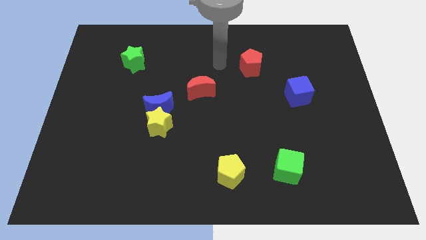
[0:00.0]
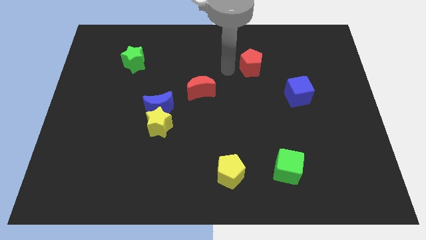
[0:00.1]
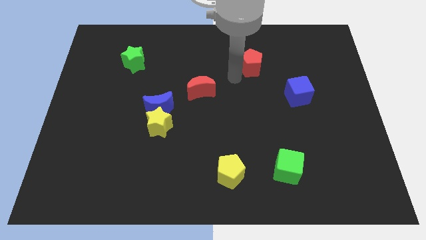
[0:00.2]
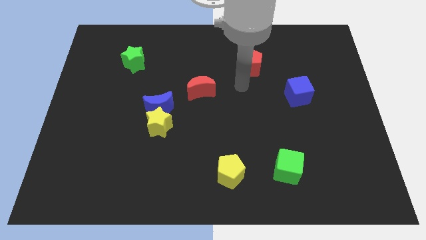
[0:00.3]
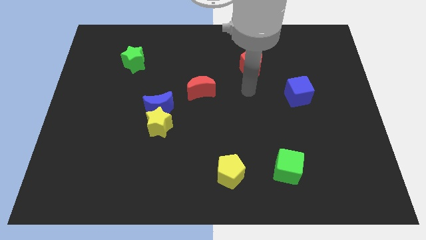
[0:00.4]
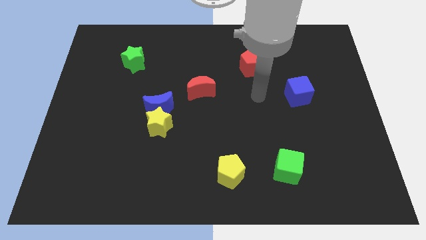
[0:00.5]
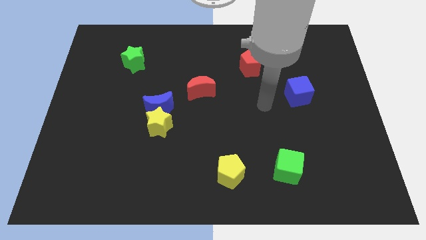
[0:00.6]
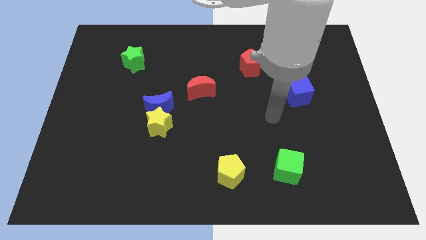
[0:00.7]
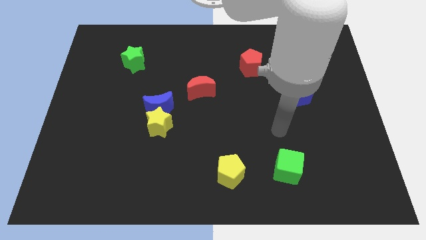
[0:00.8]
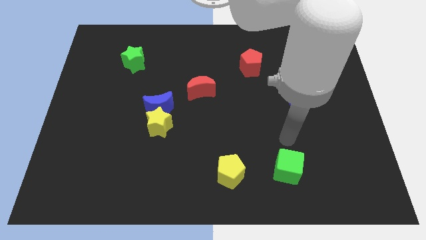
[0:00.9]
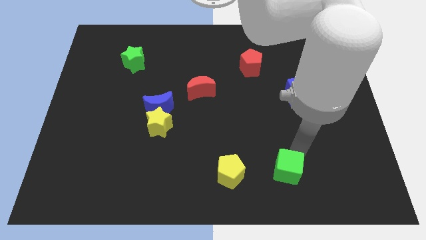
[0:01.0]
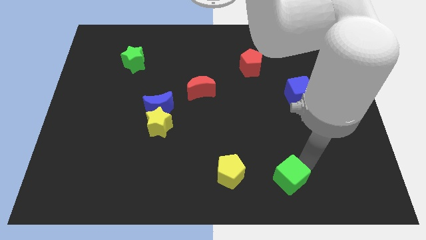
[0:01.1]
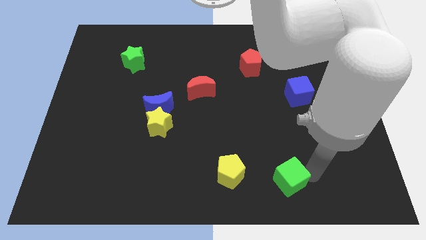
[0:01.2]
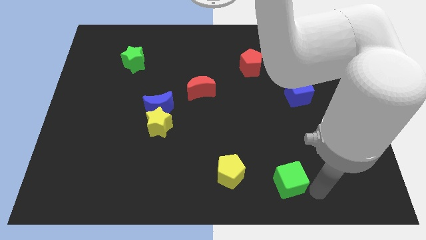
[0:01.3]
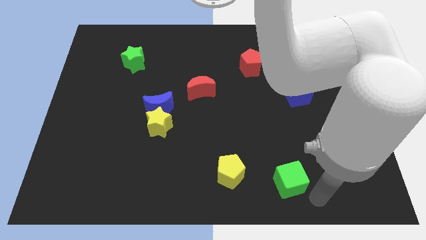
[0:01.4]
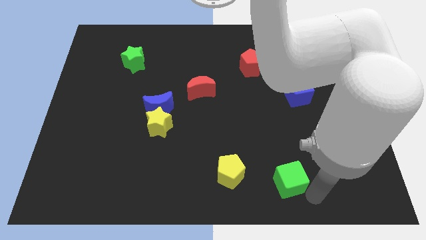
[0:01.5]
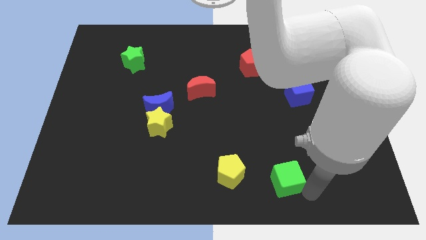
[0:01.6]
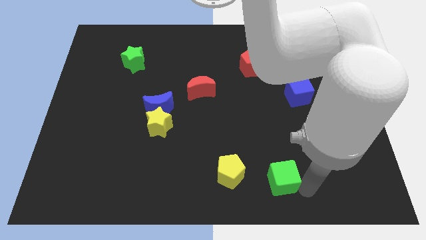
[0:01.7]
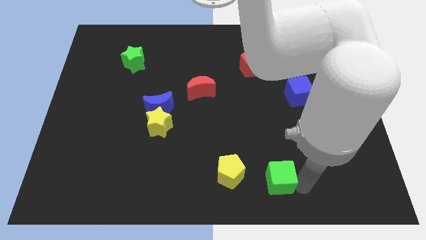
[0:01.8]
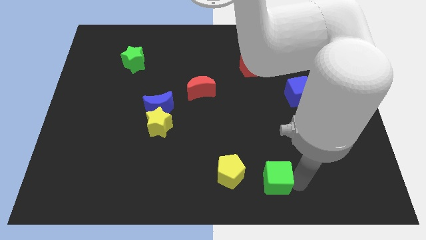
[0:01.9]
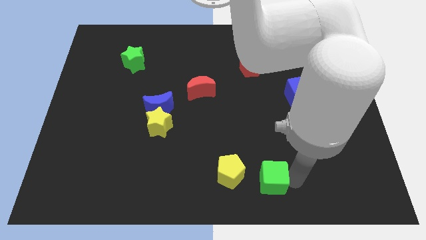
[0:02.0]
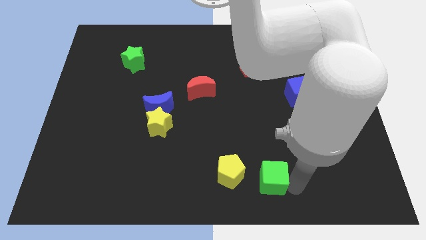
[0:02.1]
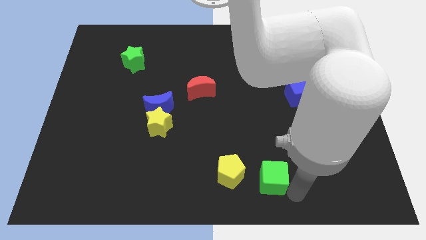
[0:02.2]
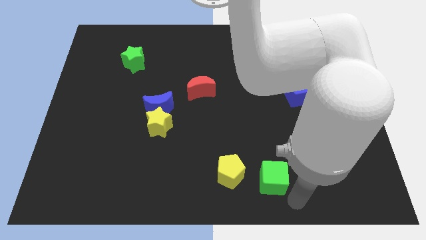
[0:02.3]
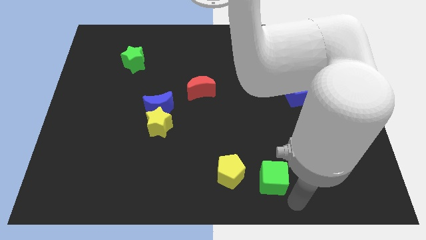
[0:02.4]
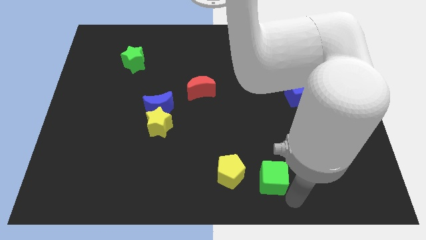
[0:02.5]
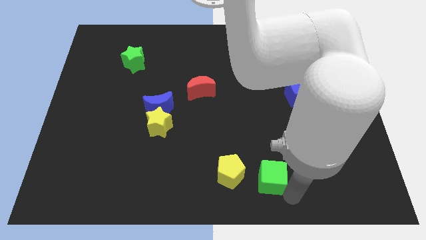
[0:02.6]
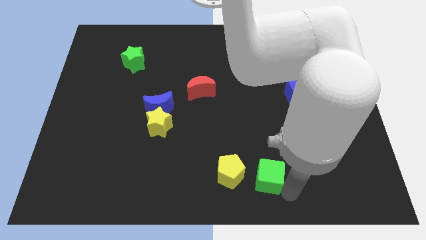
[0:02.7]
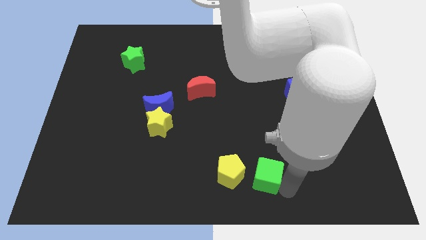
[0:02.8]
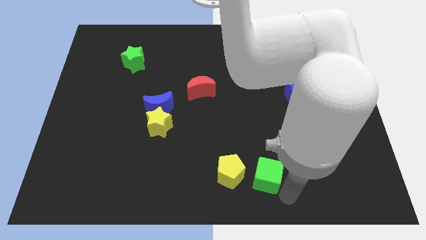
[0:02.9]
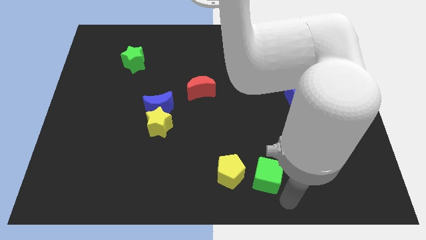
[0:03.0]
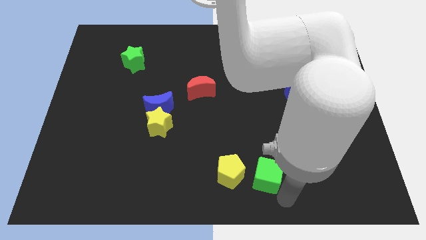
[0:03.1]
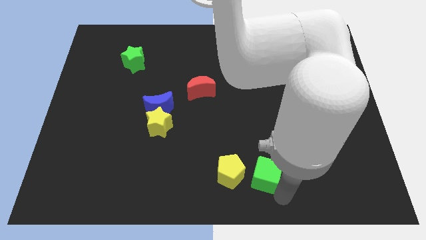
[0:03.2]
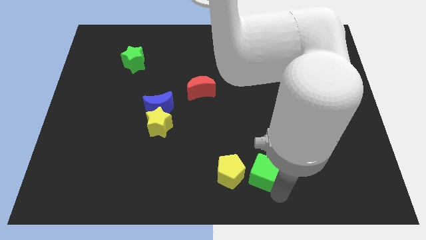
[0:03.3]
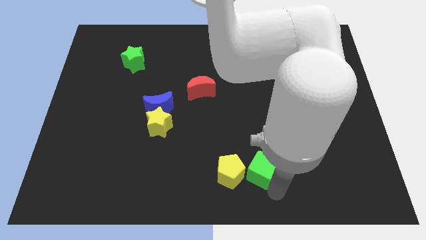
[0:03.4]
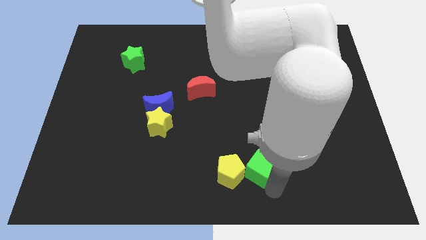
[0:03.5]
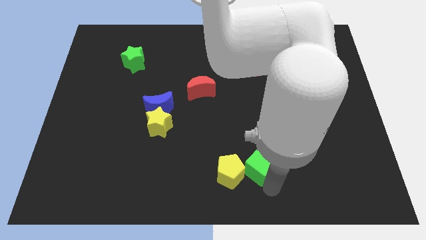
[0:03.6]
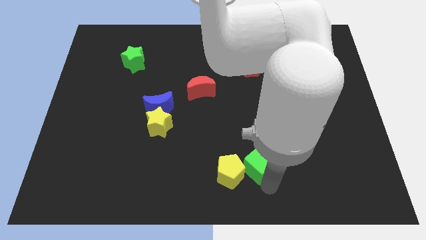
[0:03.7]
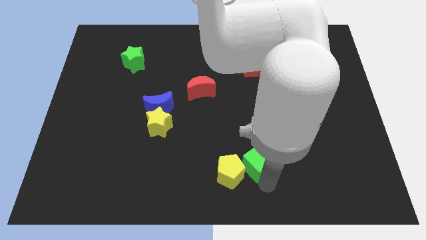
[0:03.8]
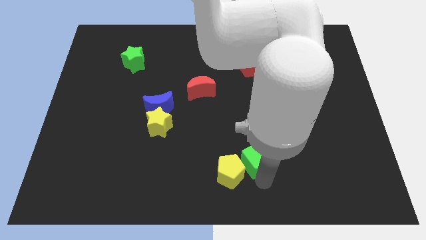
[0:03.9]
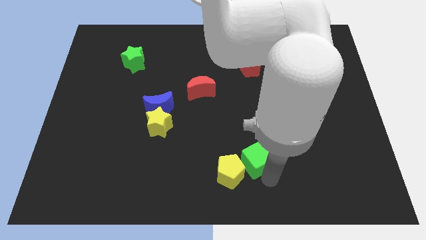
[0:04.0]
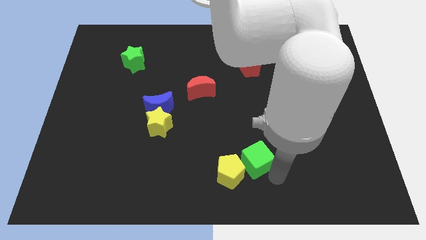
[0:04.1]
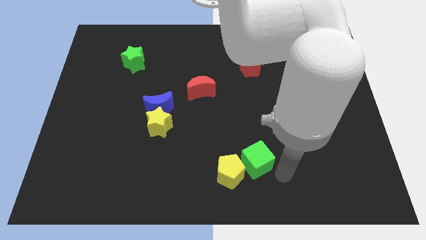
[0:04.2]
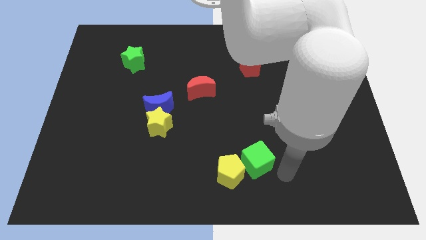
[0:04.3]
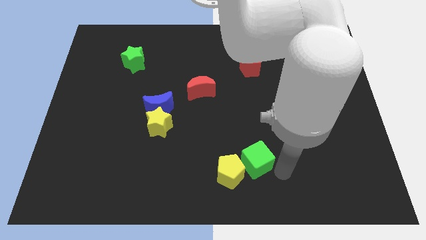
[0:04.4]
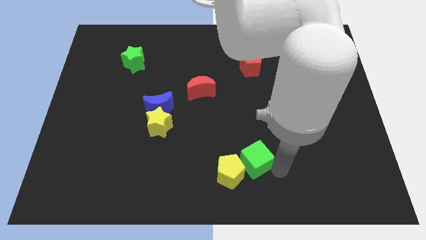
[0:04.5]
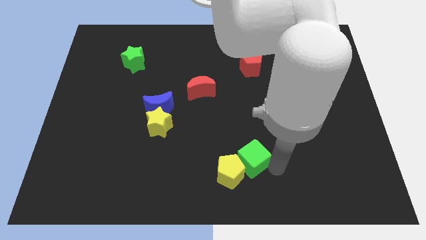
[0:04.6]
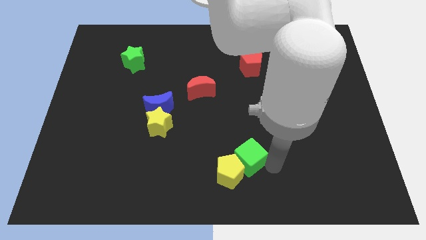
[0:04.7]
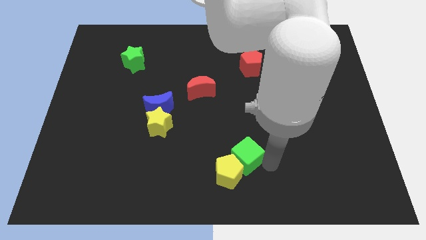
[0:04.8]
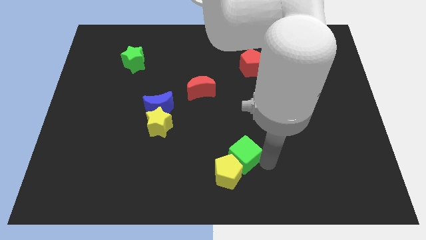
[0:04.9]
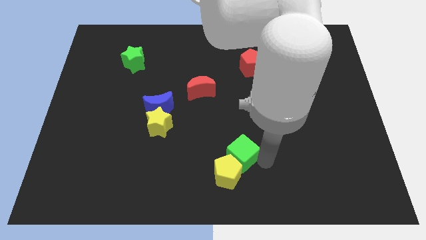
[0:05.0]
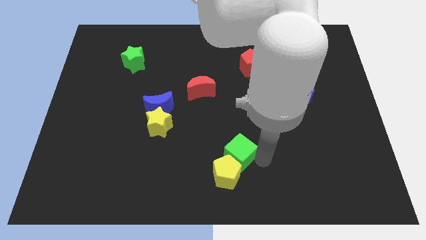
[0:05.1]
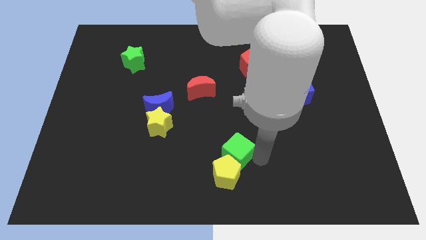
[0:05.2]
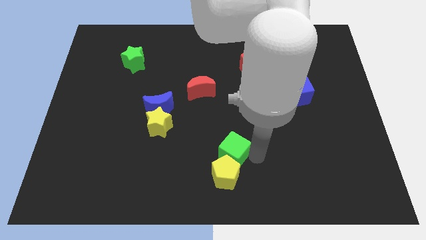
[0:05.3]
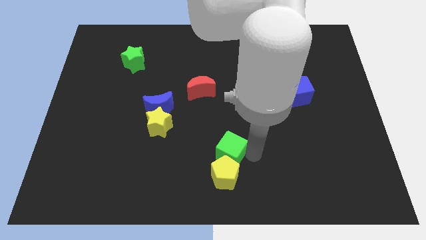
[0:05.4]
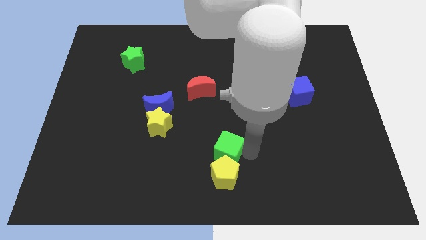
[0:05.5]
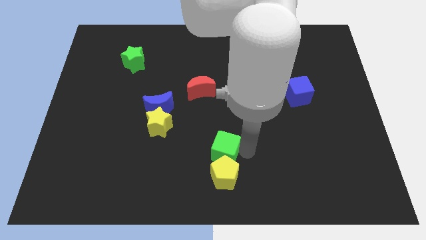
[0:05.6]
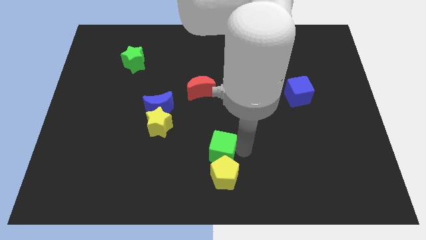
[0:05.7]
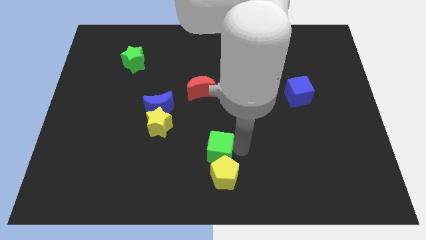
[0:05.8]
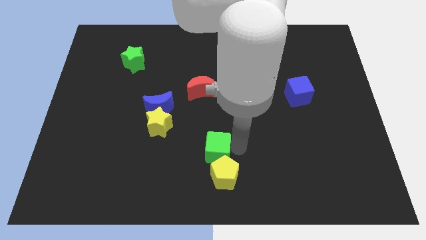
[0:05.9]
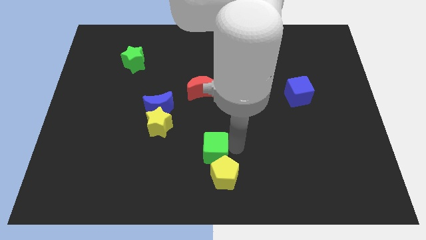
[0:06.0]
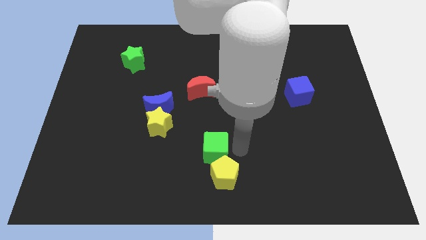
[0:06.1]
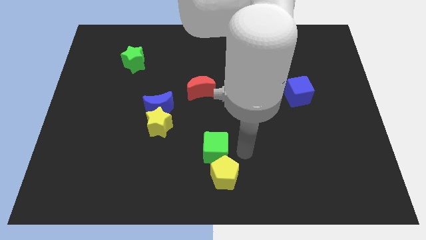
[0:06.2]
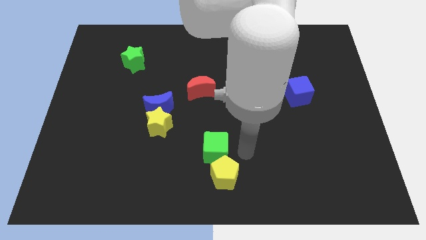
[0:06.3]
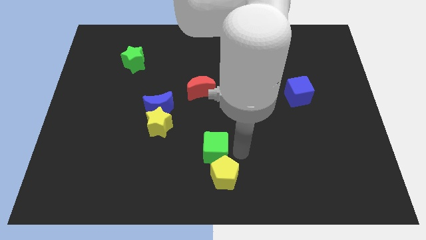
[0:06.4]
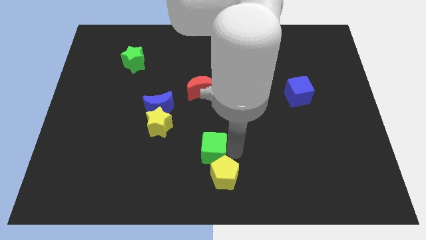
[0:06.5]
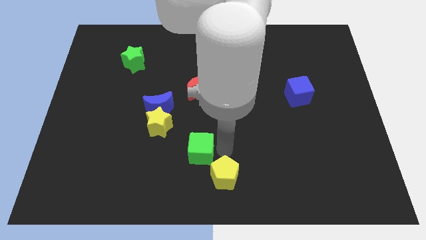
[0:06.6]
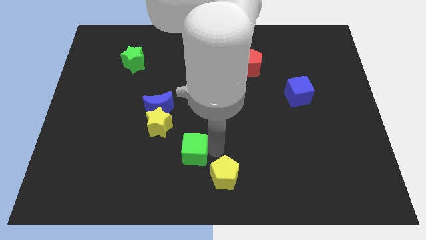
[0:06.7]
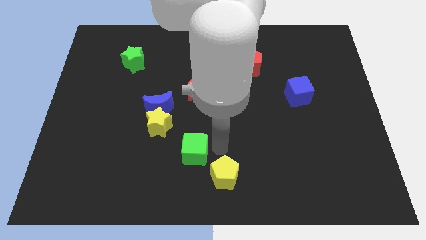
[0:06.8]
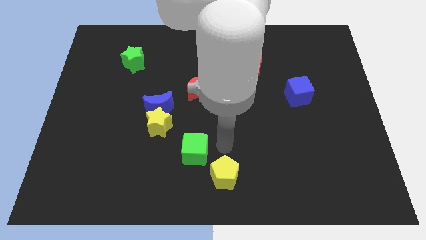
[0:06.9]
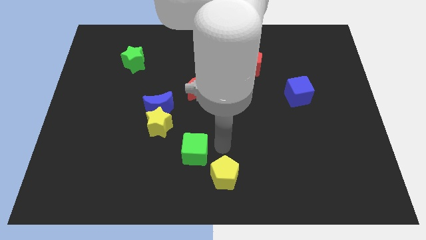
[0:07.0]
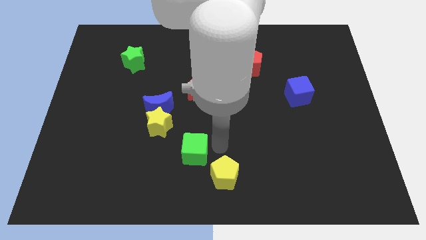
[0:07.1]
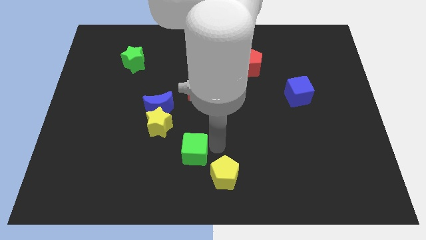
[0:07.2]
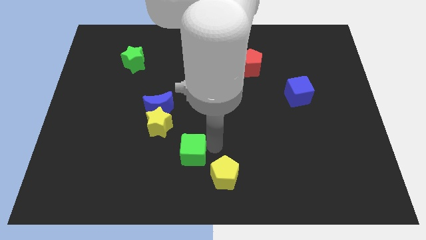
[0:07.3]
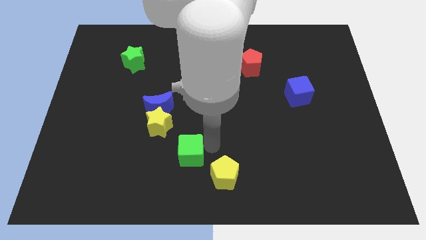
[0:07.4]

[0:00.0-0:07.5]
slide the green cube left

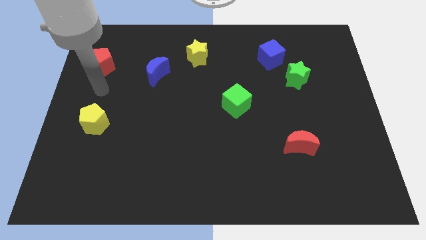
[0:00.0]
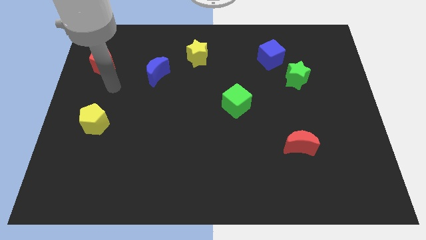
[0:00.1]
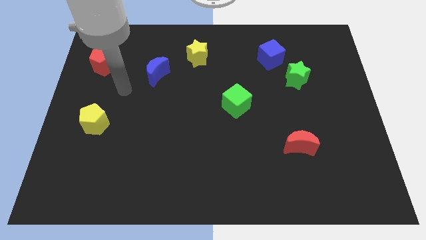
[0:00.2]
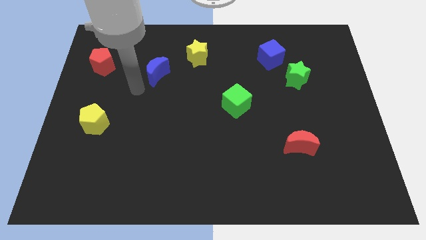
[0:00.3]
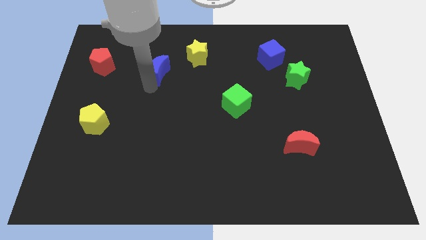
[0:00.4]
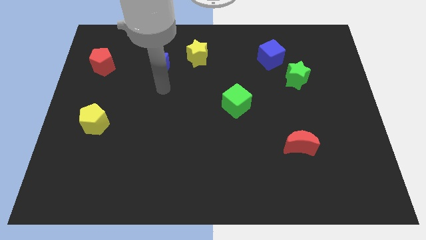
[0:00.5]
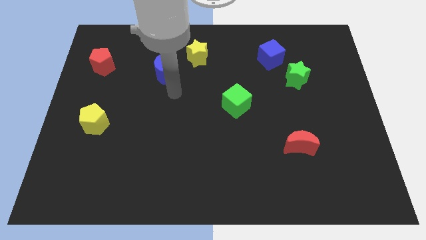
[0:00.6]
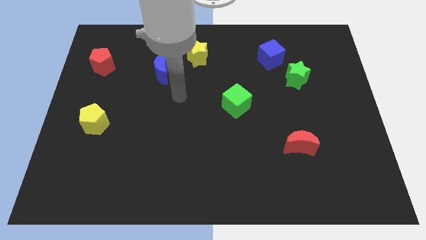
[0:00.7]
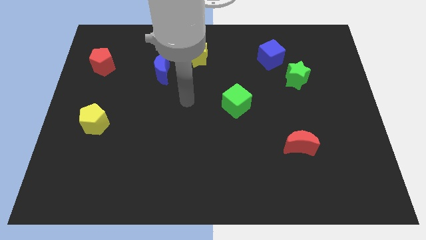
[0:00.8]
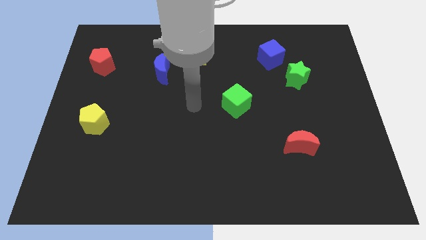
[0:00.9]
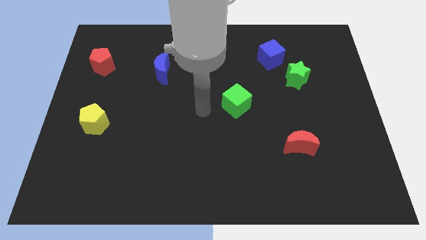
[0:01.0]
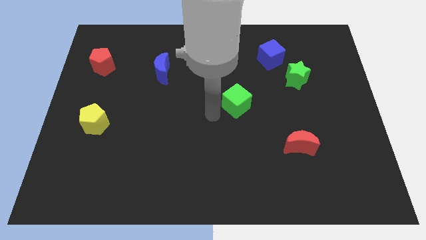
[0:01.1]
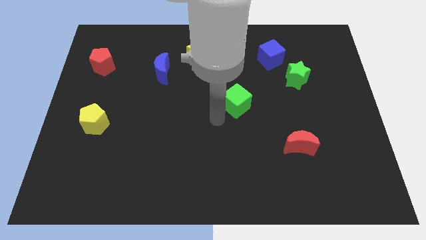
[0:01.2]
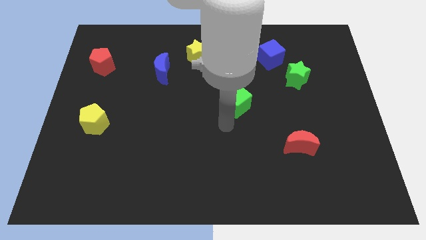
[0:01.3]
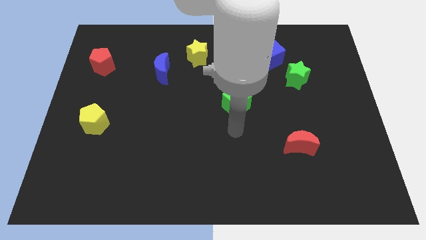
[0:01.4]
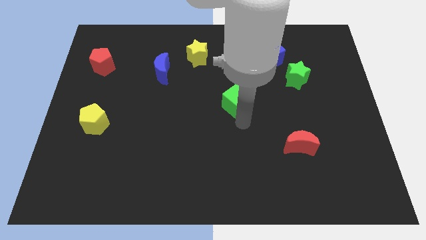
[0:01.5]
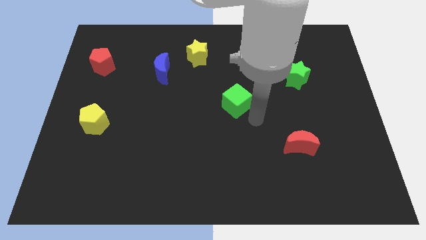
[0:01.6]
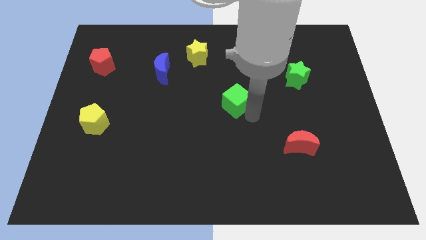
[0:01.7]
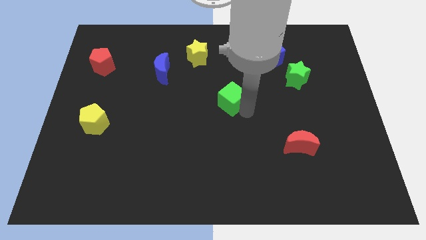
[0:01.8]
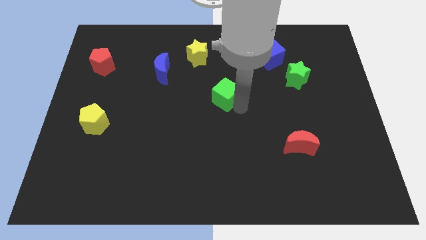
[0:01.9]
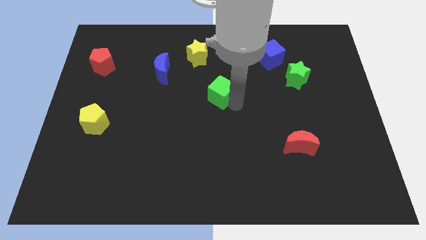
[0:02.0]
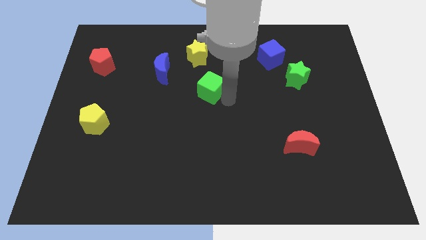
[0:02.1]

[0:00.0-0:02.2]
push the green cube a bit up and then left
